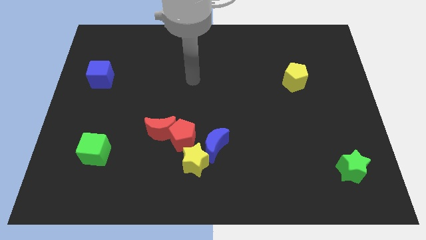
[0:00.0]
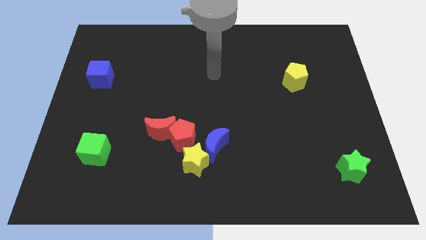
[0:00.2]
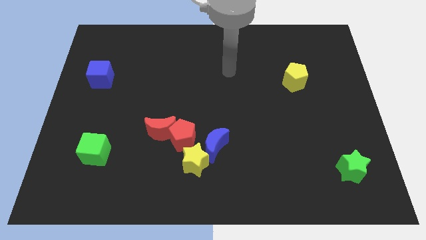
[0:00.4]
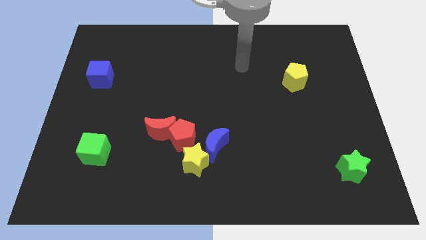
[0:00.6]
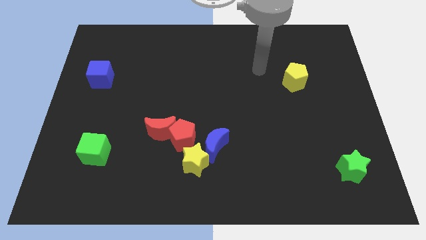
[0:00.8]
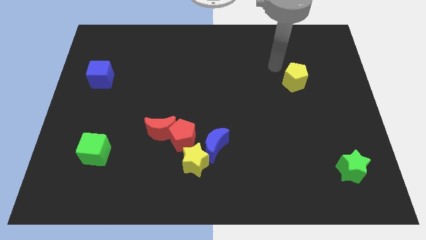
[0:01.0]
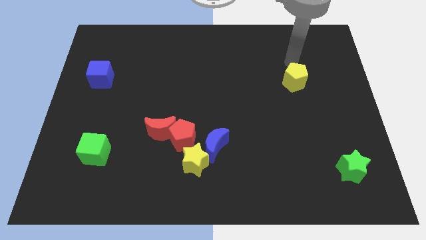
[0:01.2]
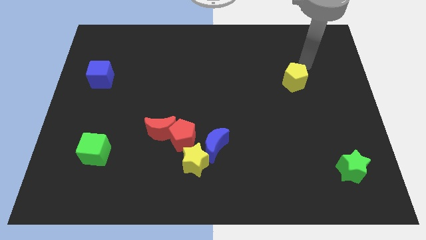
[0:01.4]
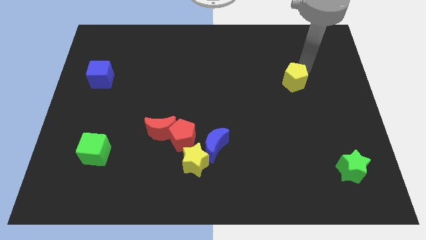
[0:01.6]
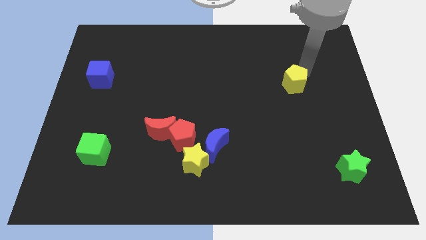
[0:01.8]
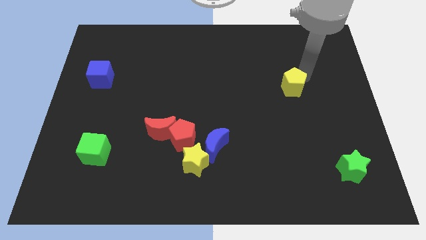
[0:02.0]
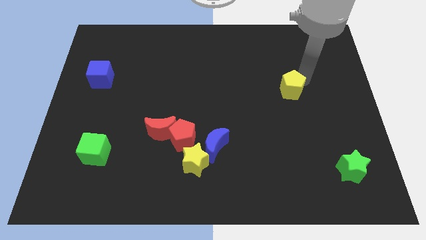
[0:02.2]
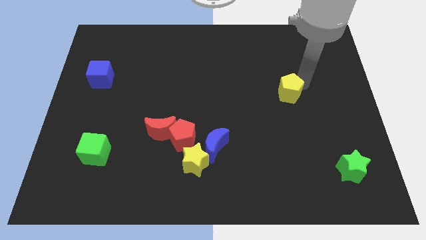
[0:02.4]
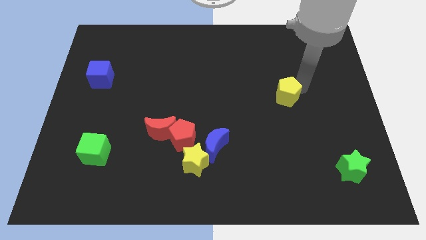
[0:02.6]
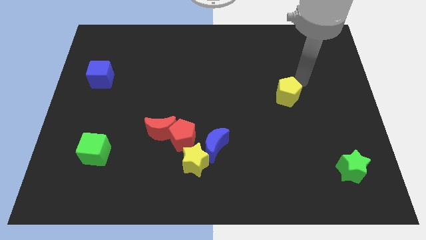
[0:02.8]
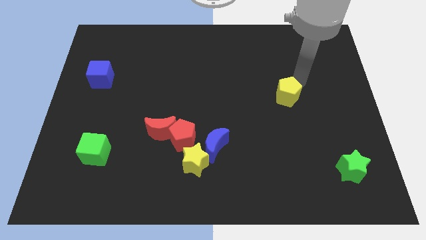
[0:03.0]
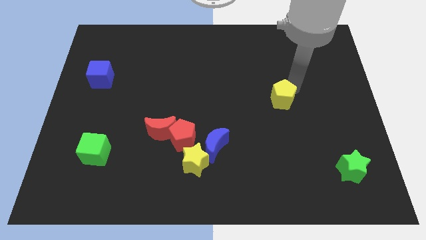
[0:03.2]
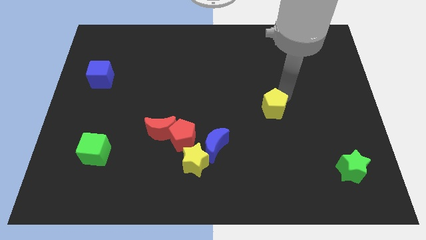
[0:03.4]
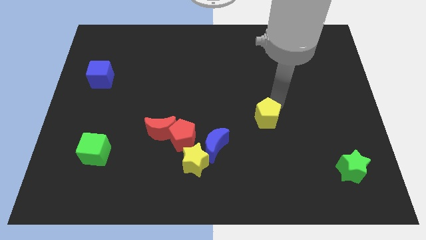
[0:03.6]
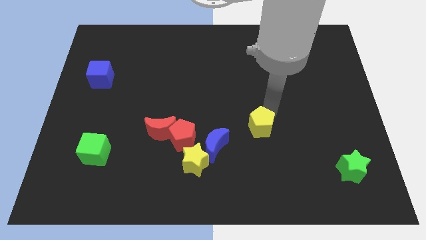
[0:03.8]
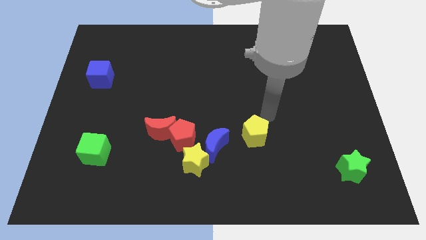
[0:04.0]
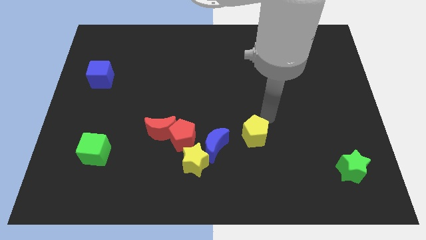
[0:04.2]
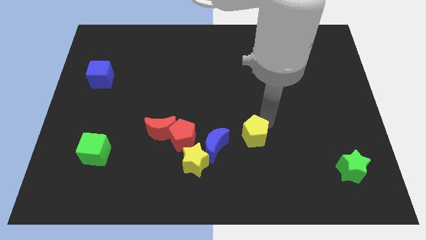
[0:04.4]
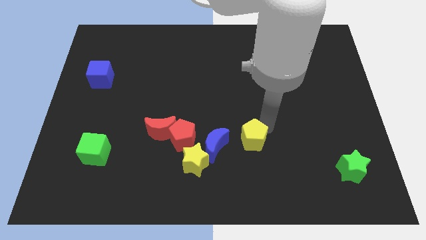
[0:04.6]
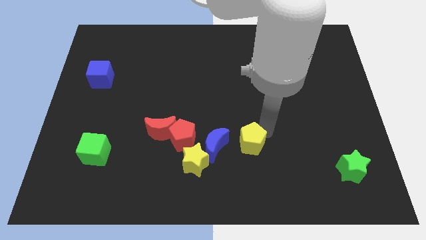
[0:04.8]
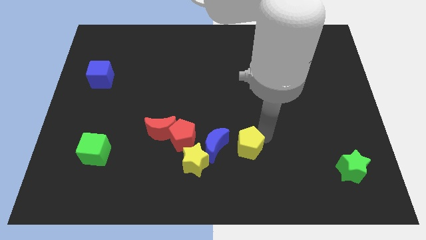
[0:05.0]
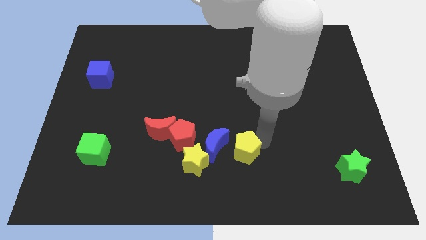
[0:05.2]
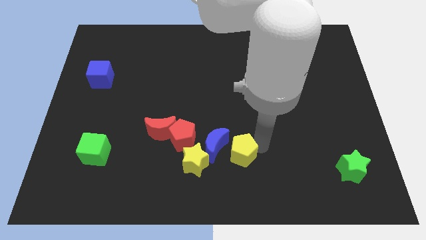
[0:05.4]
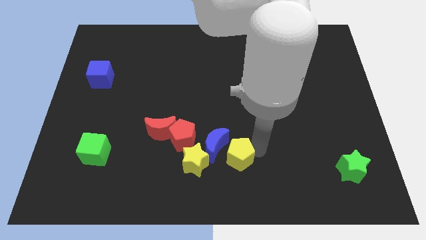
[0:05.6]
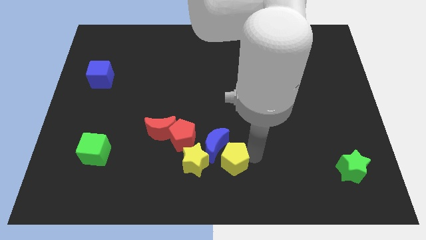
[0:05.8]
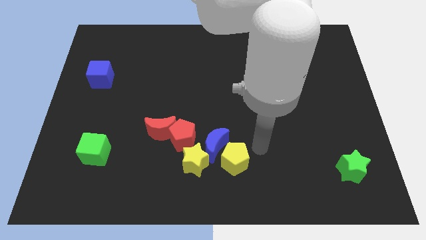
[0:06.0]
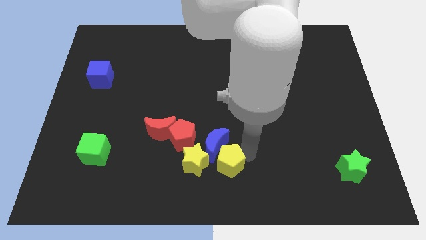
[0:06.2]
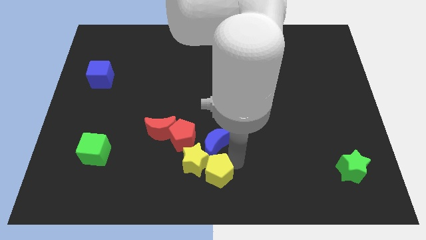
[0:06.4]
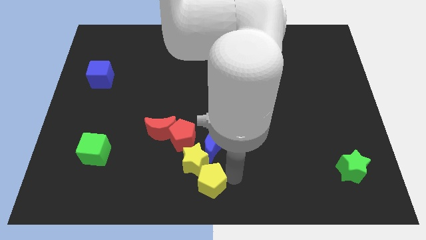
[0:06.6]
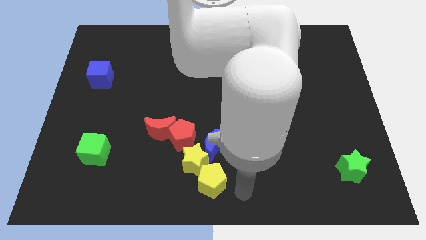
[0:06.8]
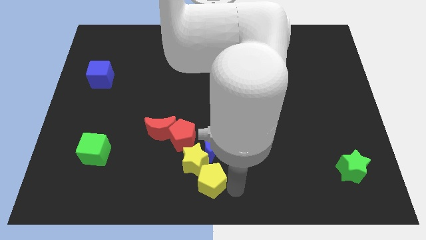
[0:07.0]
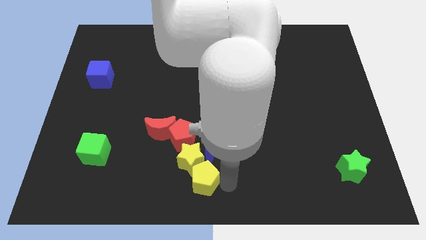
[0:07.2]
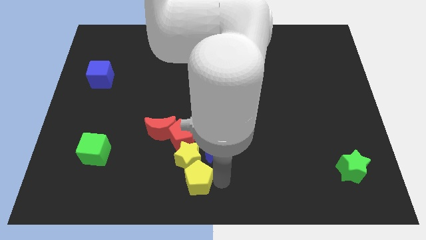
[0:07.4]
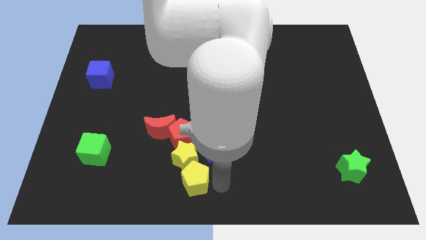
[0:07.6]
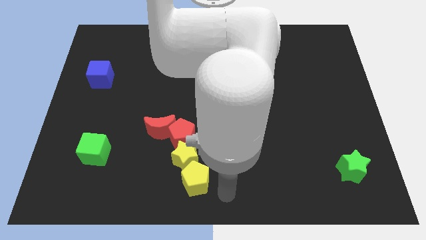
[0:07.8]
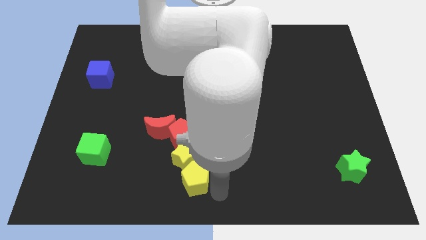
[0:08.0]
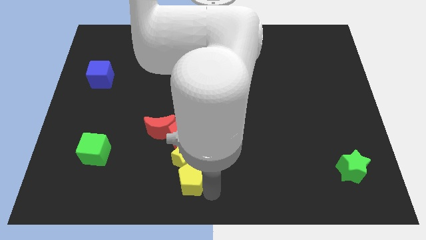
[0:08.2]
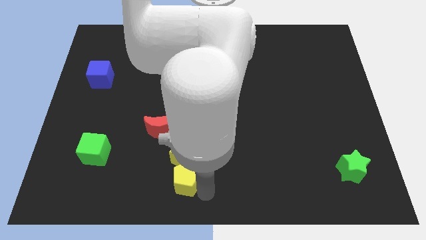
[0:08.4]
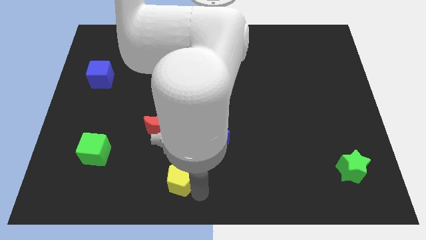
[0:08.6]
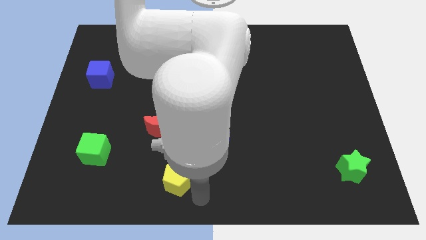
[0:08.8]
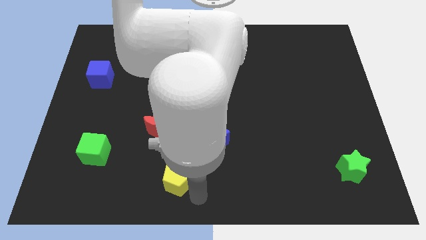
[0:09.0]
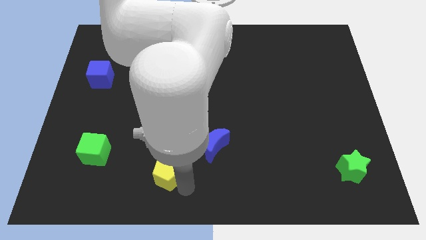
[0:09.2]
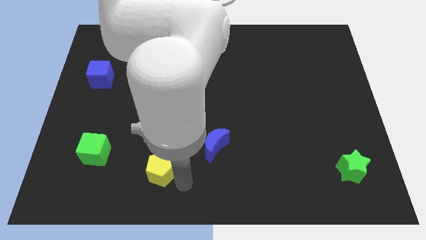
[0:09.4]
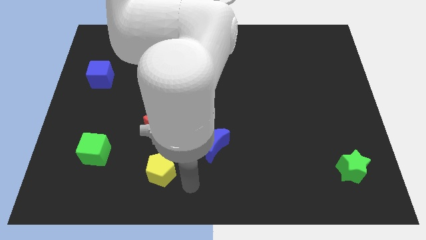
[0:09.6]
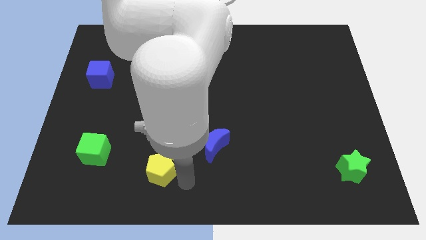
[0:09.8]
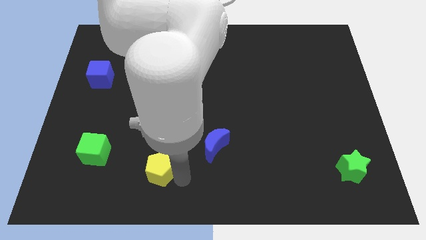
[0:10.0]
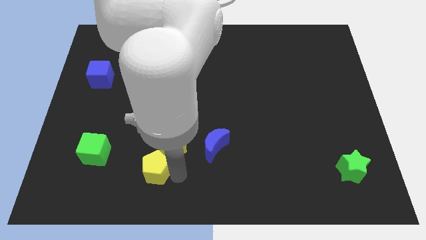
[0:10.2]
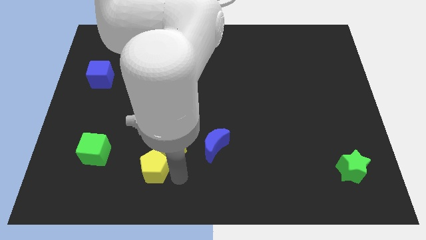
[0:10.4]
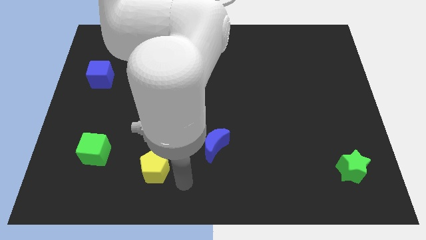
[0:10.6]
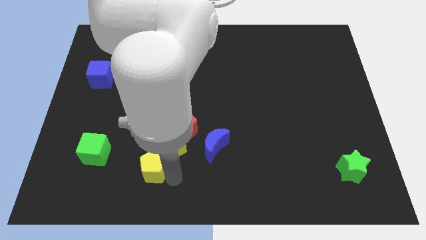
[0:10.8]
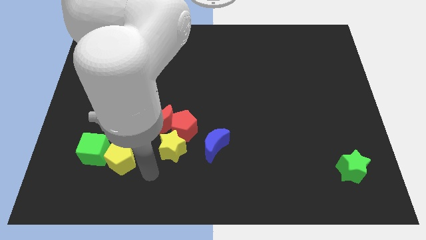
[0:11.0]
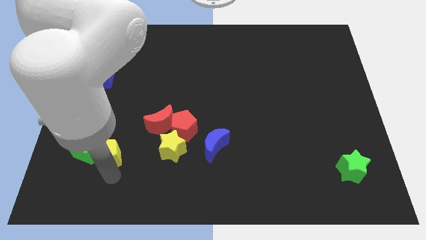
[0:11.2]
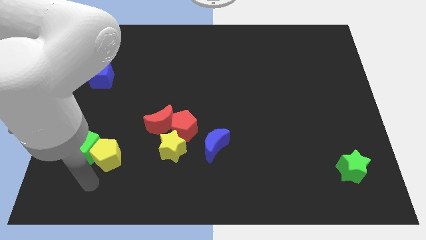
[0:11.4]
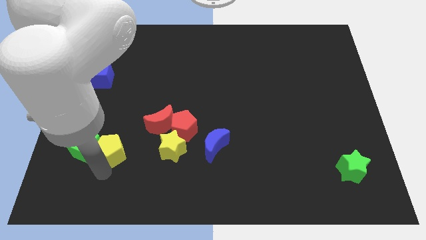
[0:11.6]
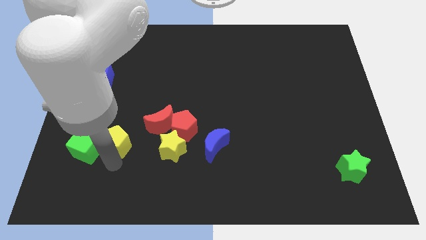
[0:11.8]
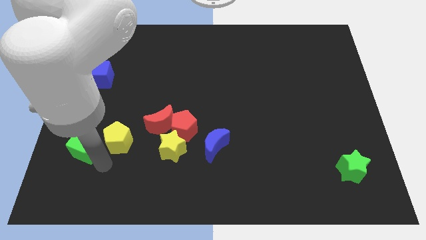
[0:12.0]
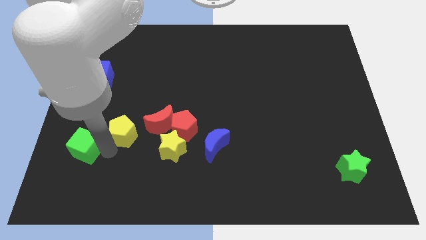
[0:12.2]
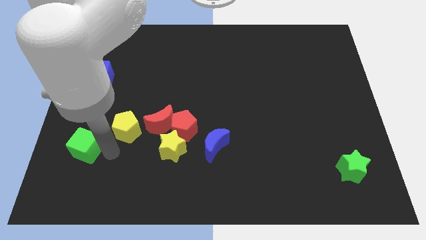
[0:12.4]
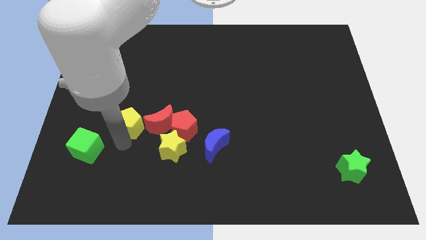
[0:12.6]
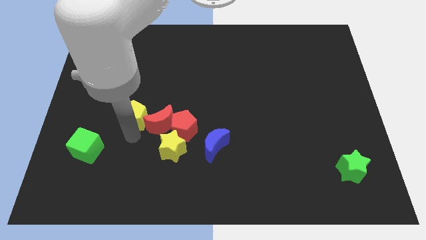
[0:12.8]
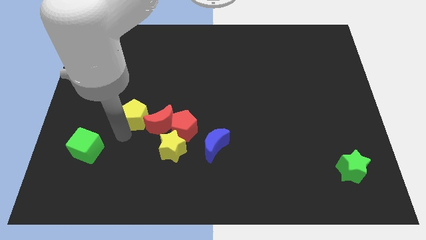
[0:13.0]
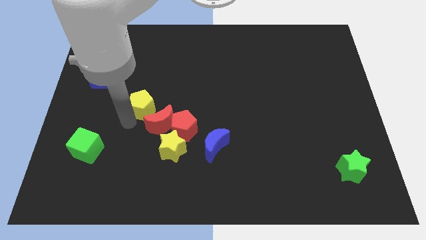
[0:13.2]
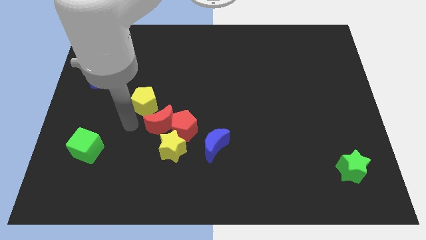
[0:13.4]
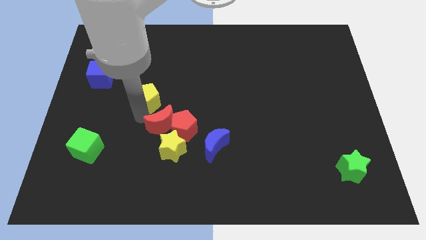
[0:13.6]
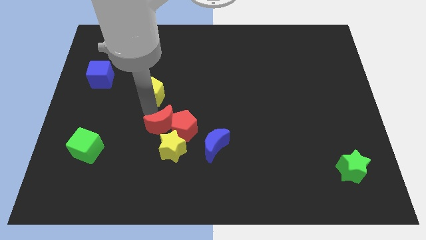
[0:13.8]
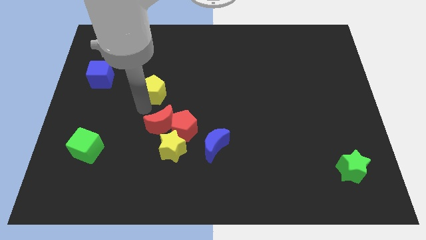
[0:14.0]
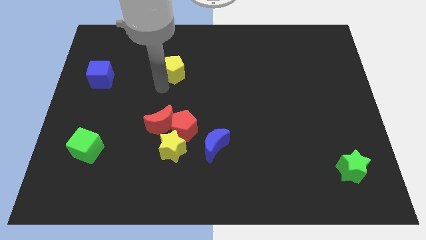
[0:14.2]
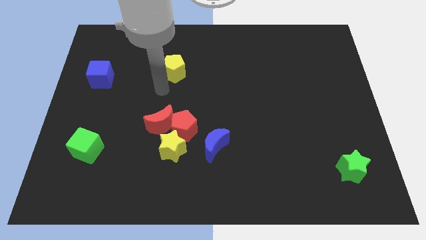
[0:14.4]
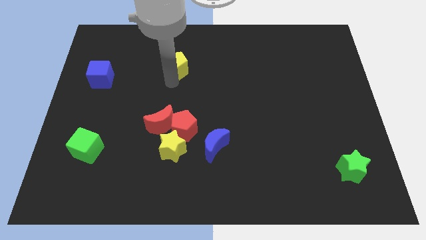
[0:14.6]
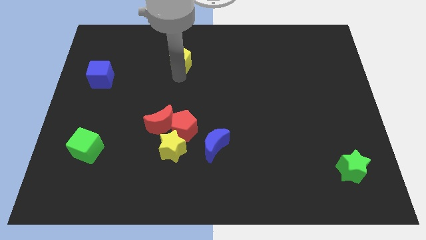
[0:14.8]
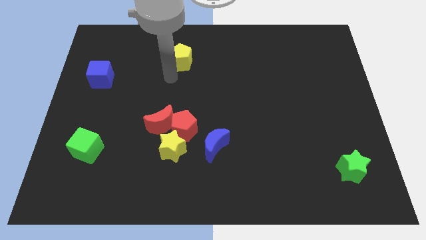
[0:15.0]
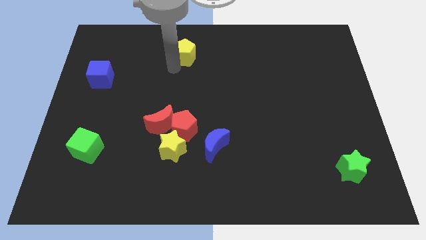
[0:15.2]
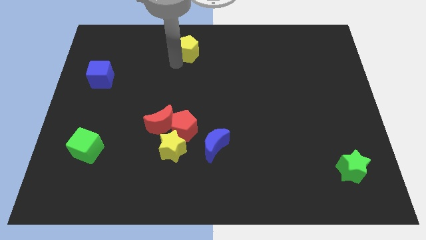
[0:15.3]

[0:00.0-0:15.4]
move the yellow pentagon to the top side
